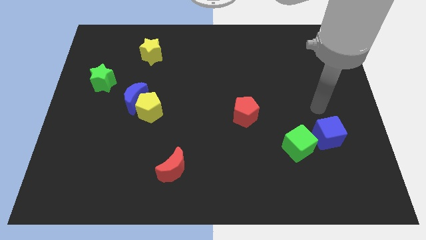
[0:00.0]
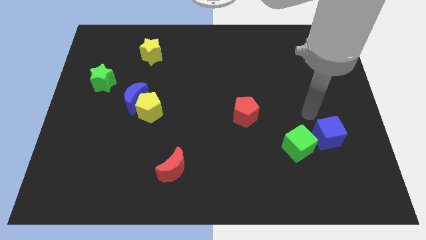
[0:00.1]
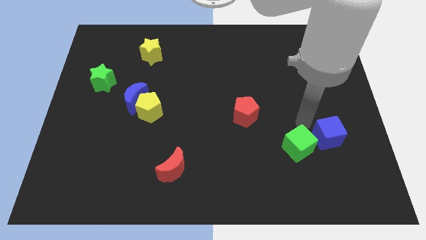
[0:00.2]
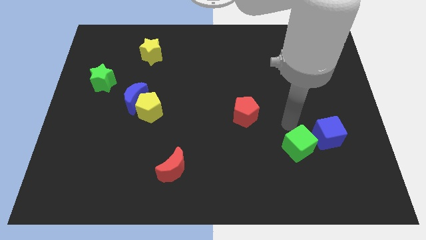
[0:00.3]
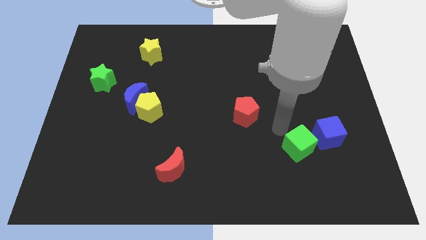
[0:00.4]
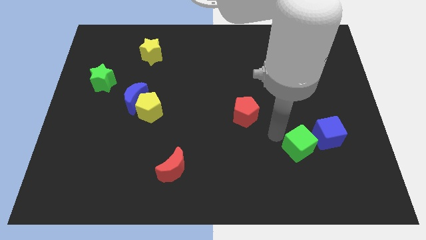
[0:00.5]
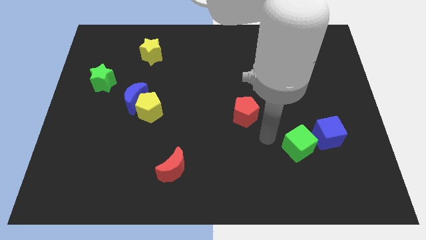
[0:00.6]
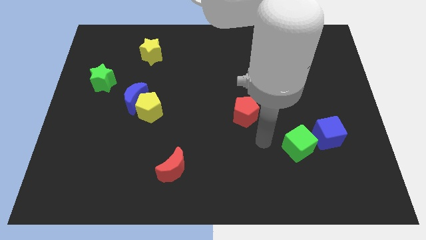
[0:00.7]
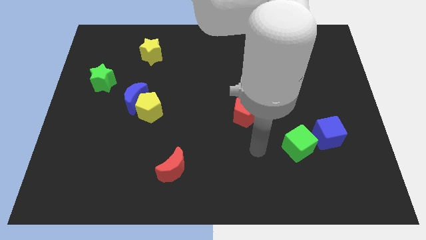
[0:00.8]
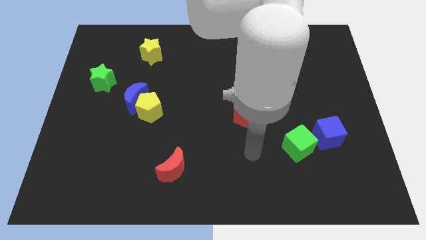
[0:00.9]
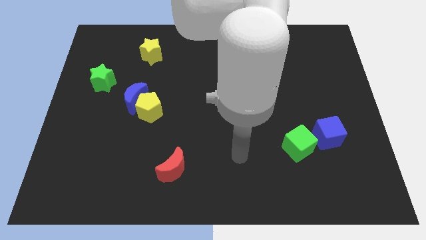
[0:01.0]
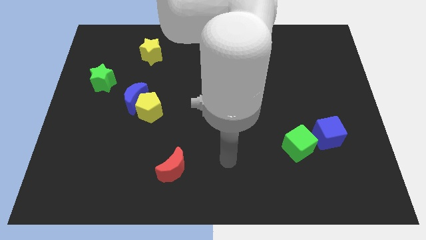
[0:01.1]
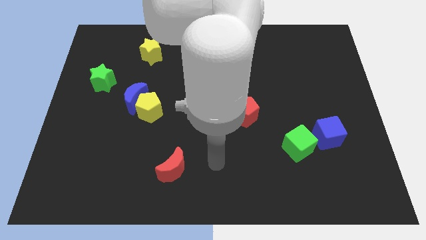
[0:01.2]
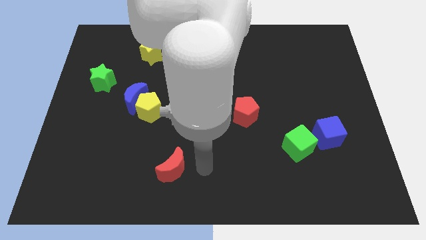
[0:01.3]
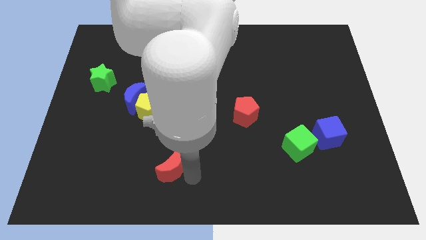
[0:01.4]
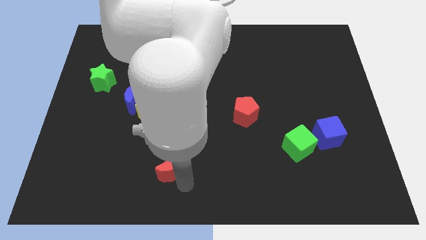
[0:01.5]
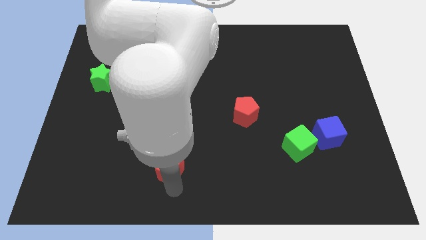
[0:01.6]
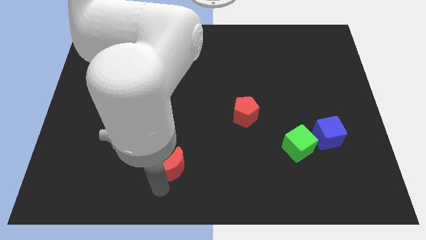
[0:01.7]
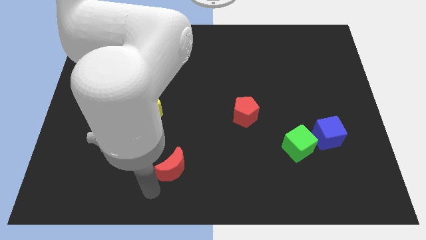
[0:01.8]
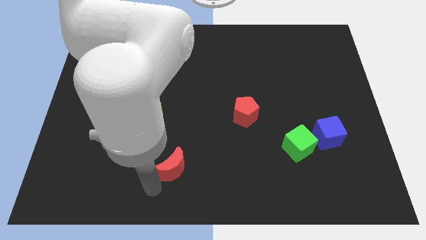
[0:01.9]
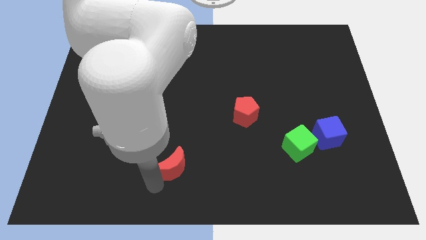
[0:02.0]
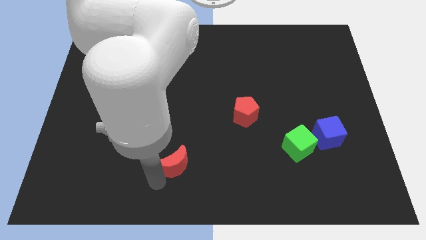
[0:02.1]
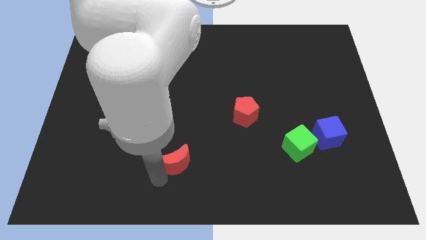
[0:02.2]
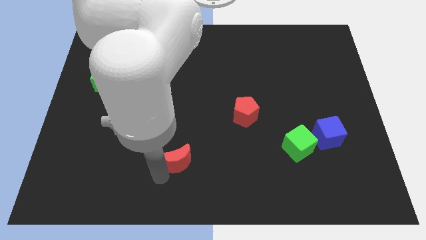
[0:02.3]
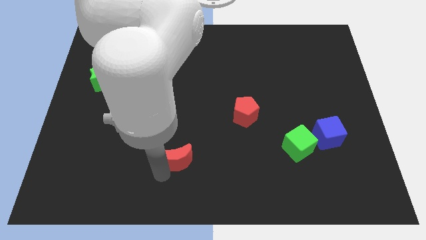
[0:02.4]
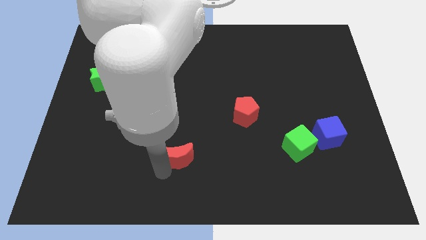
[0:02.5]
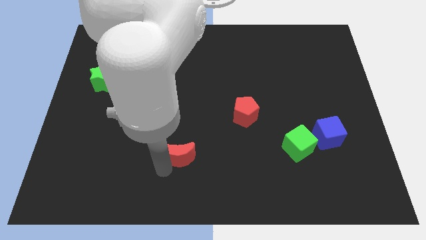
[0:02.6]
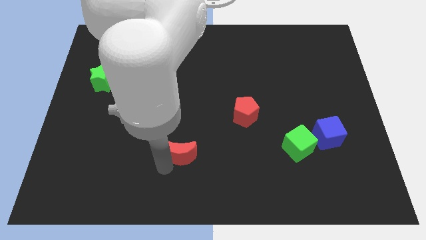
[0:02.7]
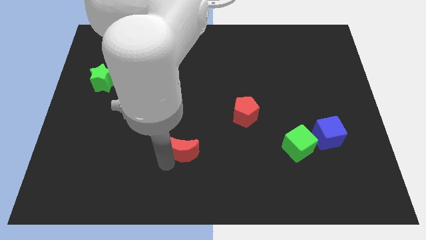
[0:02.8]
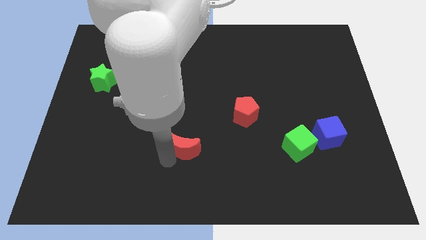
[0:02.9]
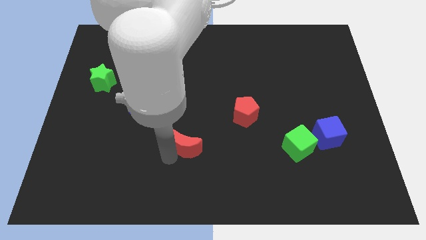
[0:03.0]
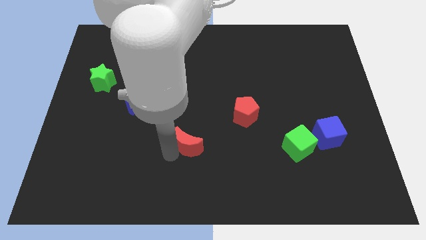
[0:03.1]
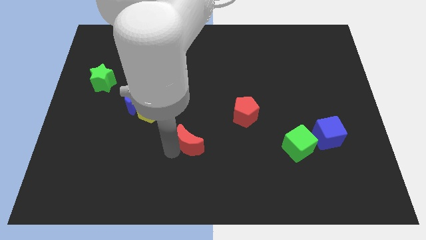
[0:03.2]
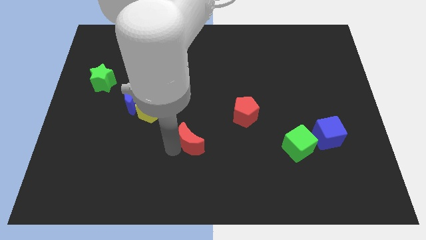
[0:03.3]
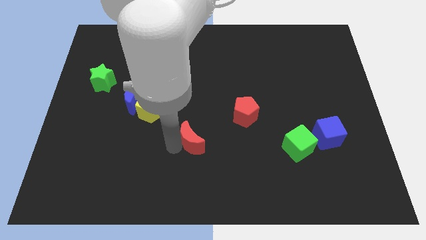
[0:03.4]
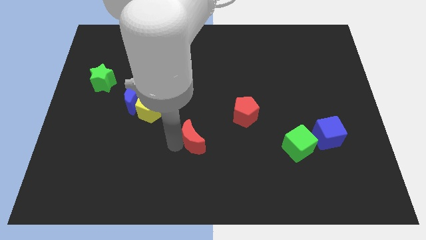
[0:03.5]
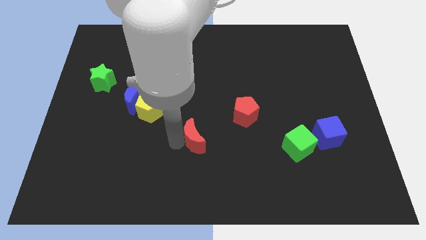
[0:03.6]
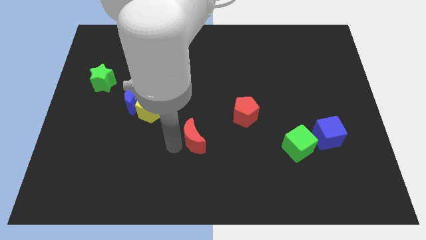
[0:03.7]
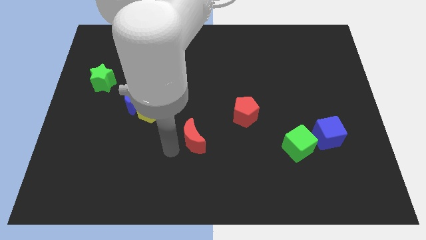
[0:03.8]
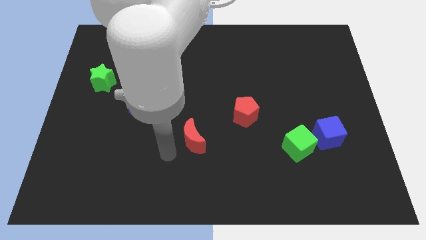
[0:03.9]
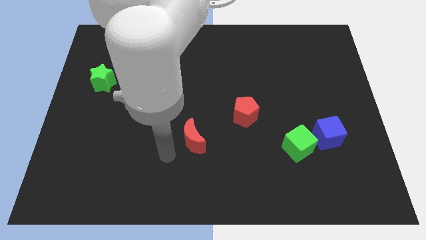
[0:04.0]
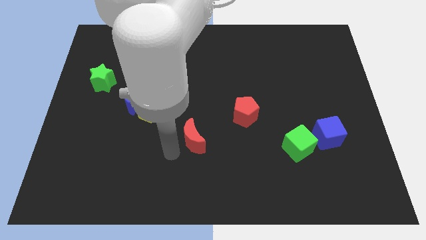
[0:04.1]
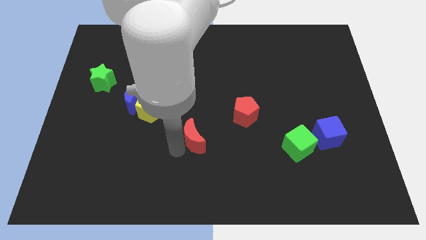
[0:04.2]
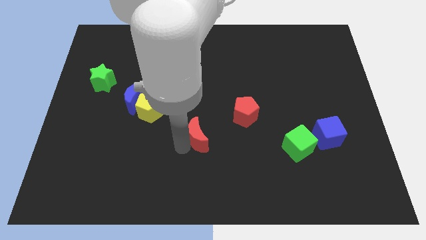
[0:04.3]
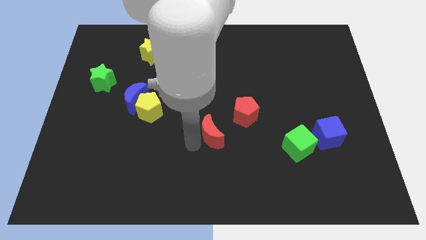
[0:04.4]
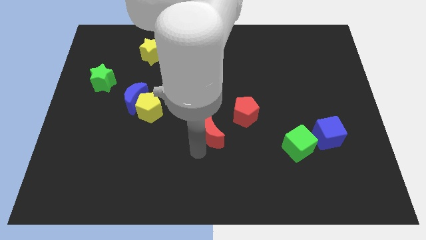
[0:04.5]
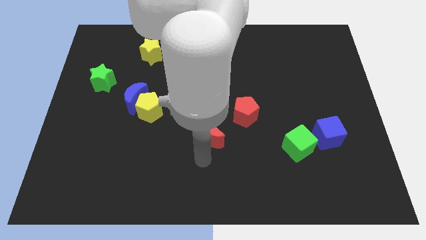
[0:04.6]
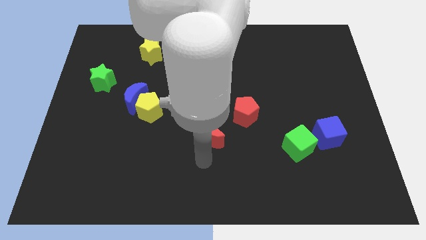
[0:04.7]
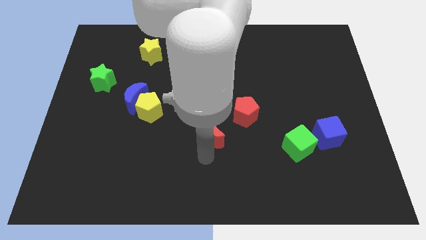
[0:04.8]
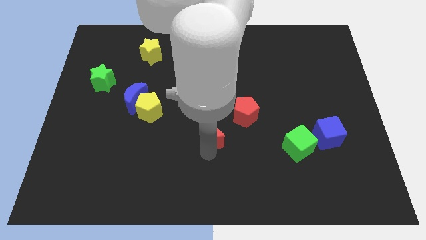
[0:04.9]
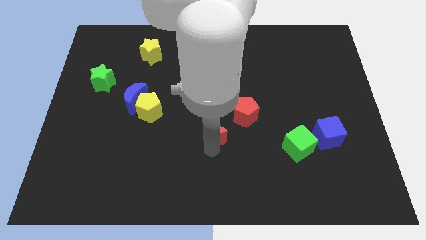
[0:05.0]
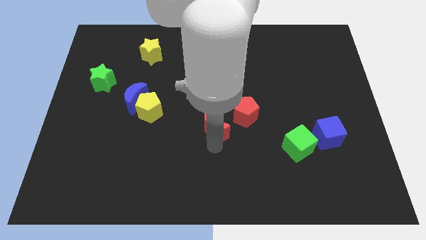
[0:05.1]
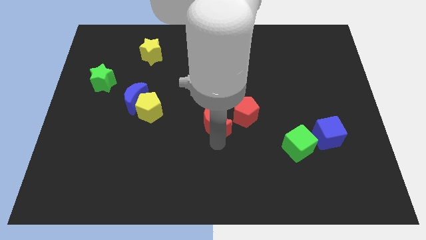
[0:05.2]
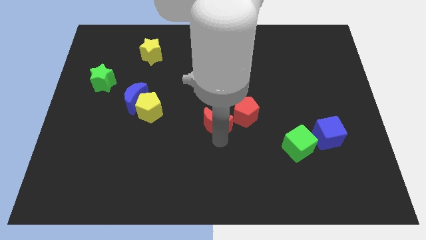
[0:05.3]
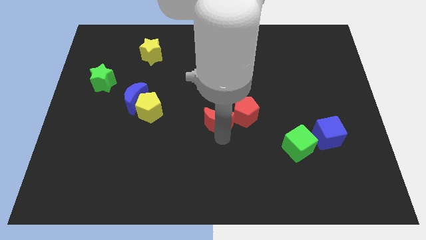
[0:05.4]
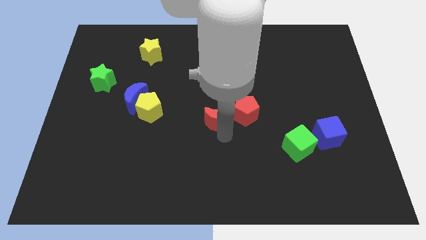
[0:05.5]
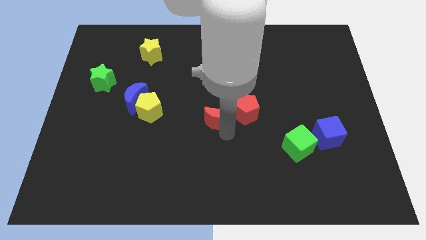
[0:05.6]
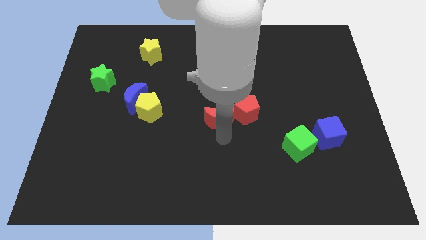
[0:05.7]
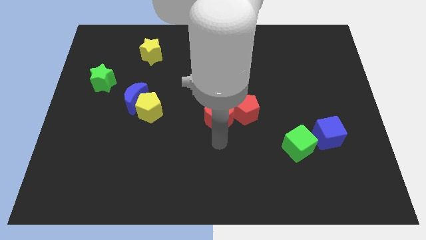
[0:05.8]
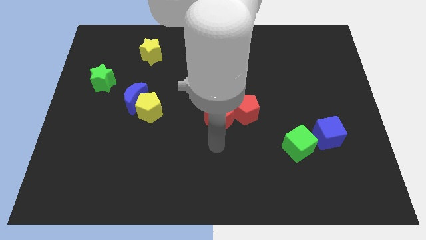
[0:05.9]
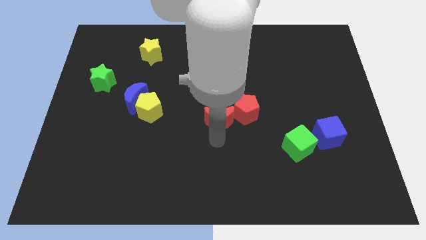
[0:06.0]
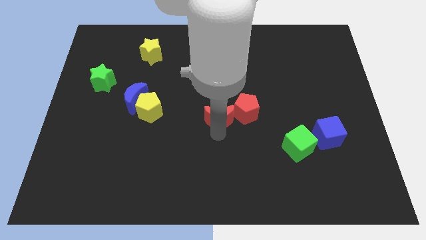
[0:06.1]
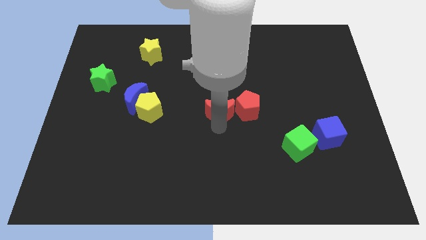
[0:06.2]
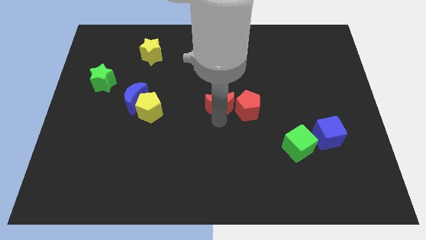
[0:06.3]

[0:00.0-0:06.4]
move the red moon to the top left of the red pentagon

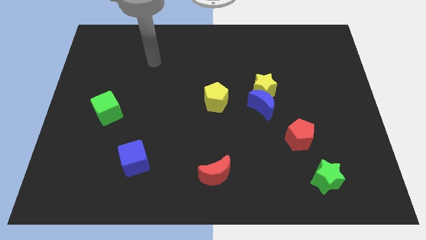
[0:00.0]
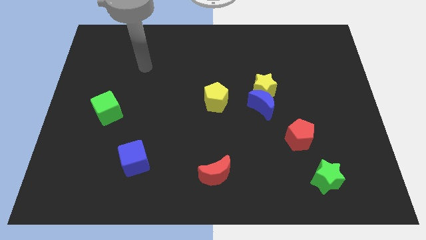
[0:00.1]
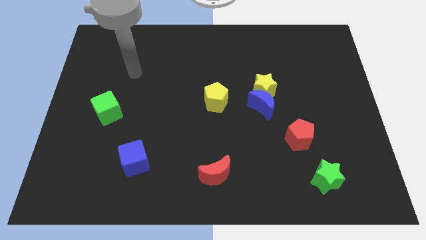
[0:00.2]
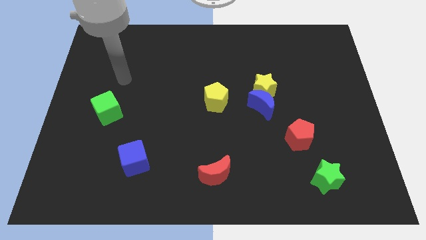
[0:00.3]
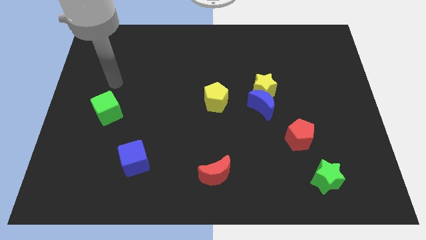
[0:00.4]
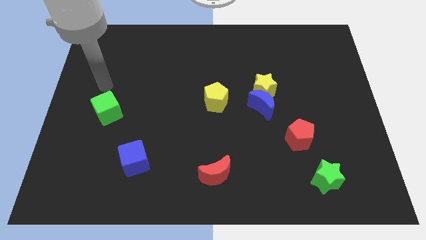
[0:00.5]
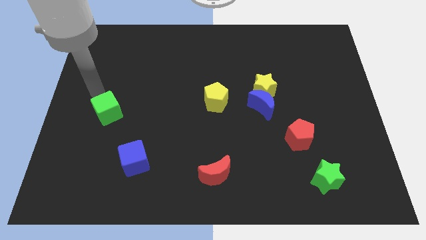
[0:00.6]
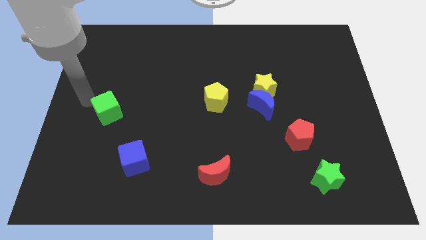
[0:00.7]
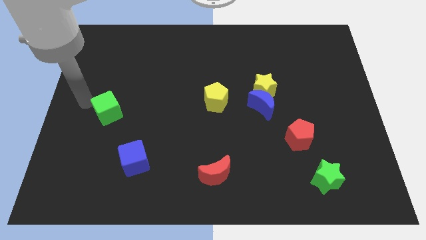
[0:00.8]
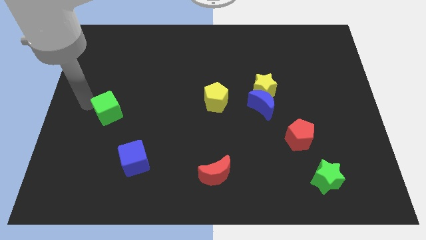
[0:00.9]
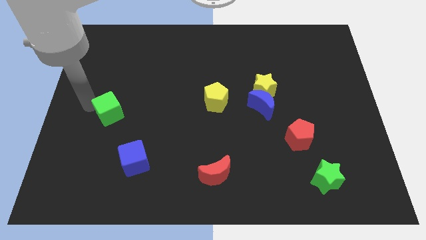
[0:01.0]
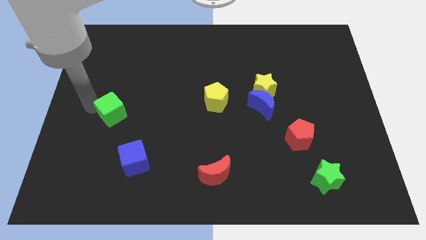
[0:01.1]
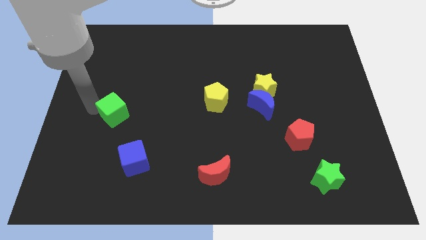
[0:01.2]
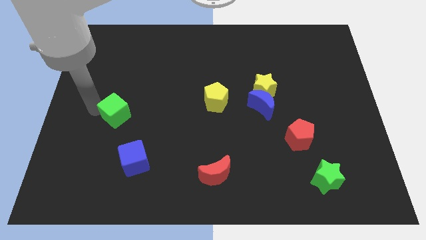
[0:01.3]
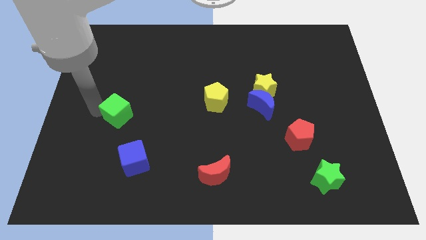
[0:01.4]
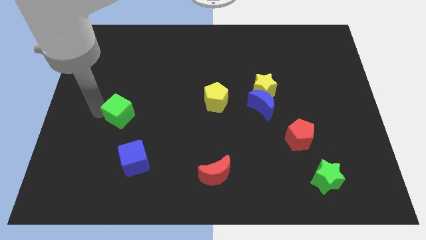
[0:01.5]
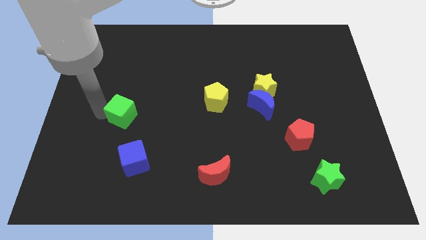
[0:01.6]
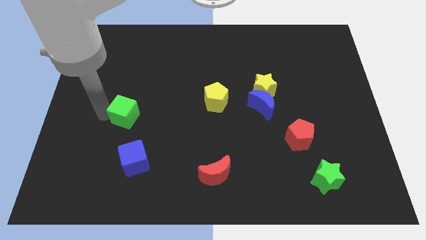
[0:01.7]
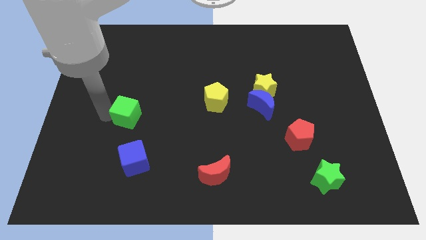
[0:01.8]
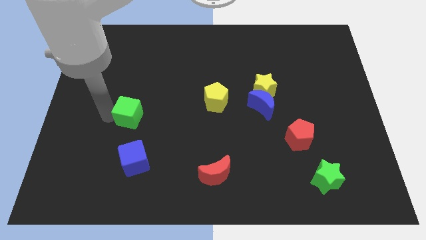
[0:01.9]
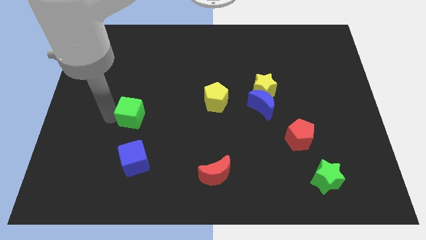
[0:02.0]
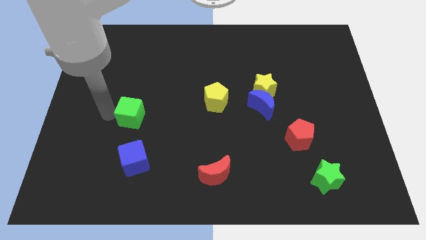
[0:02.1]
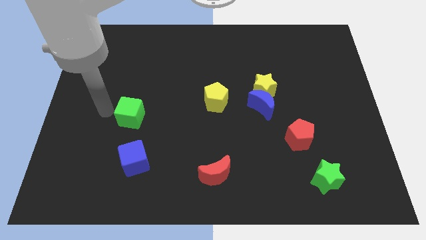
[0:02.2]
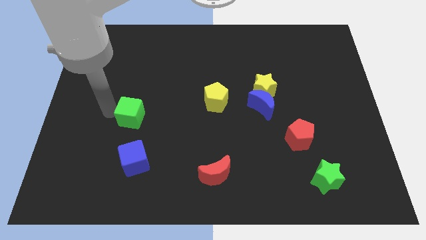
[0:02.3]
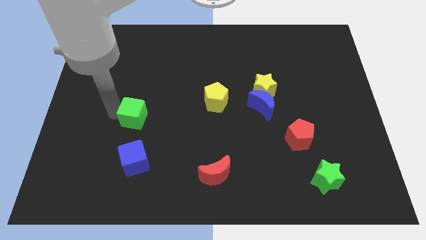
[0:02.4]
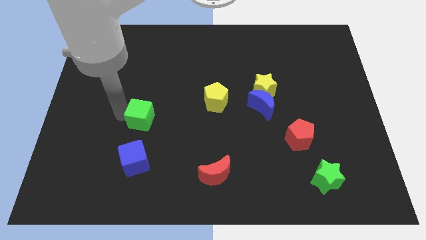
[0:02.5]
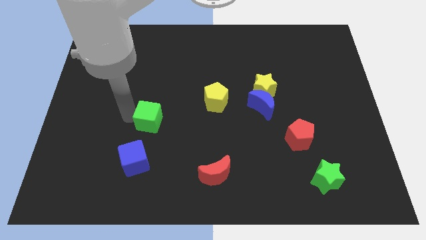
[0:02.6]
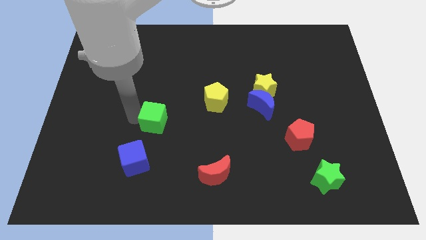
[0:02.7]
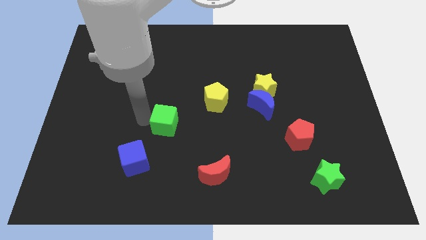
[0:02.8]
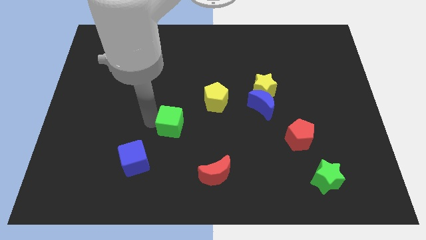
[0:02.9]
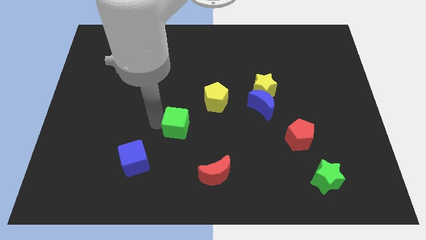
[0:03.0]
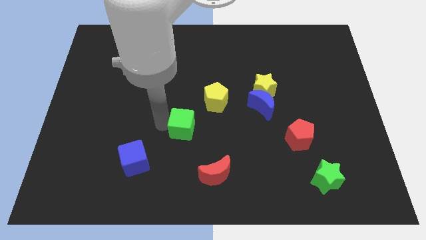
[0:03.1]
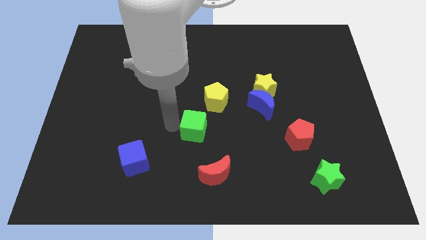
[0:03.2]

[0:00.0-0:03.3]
move the green cube to the bottom of the yellow pentagon
